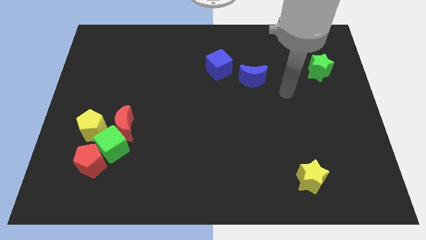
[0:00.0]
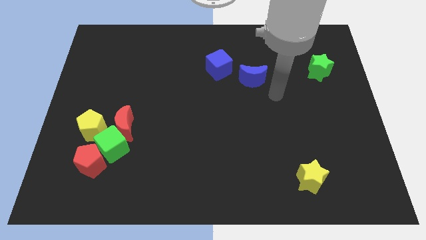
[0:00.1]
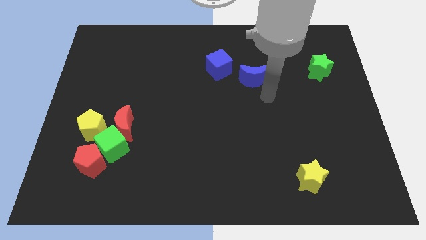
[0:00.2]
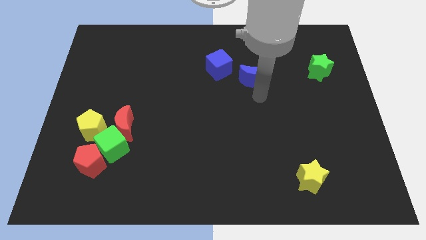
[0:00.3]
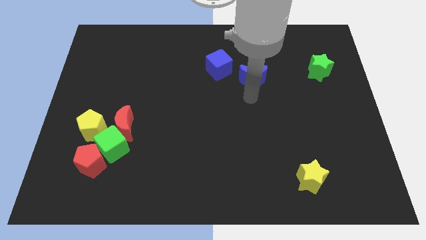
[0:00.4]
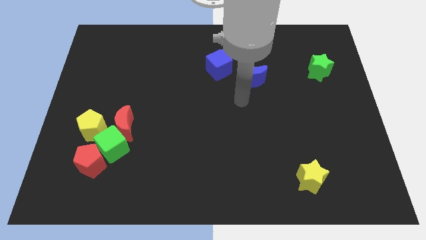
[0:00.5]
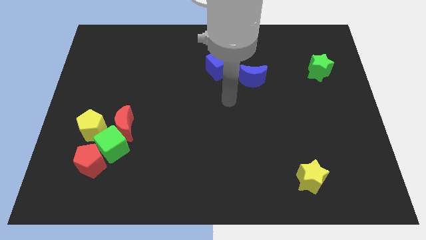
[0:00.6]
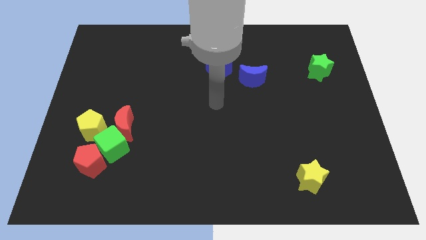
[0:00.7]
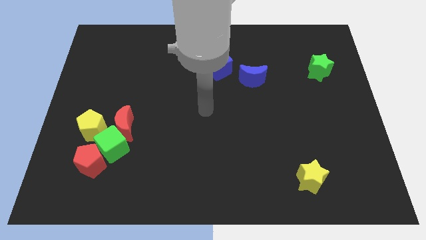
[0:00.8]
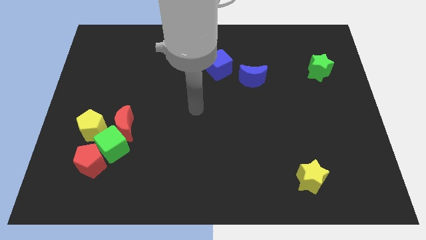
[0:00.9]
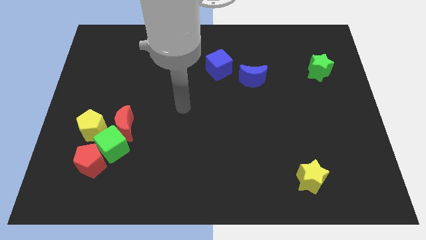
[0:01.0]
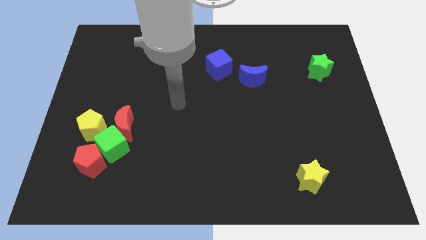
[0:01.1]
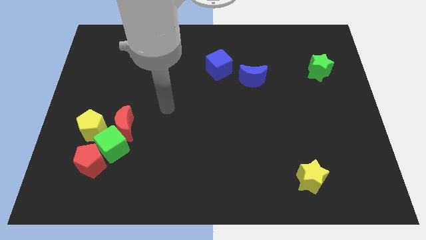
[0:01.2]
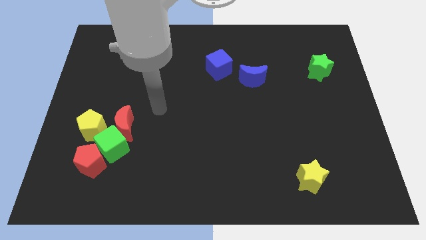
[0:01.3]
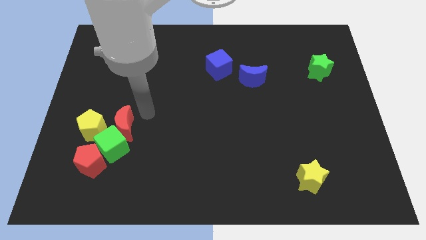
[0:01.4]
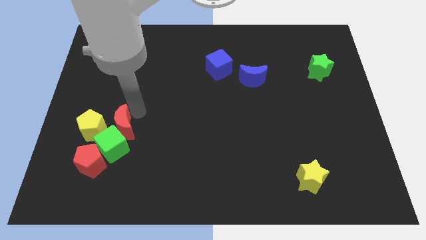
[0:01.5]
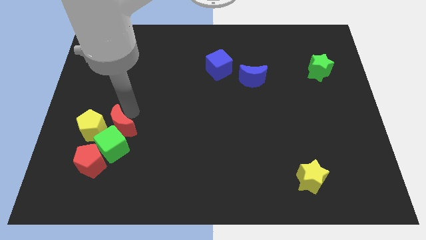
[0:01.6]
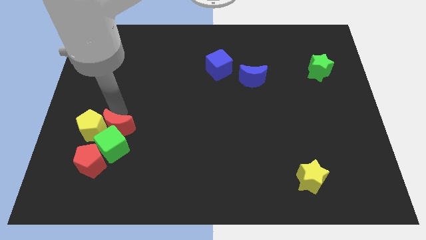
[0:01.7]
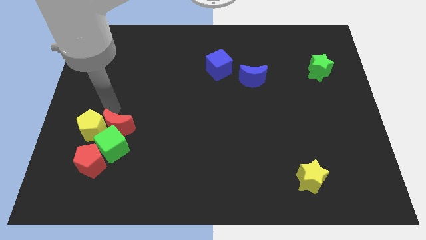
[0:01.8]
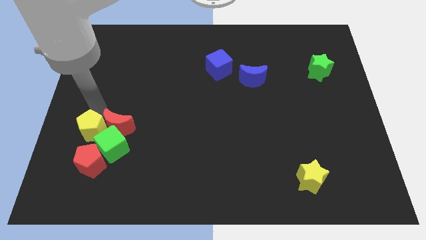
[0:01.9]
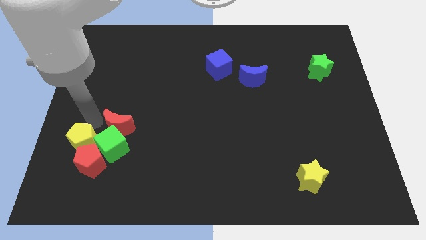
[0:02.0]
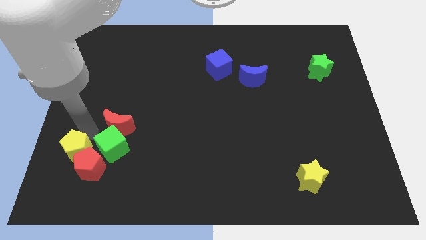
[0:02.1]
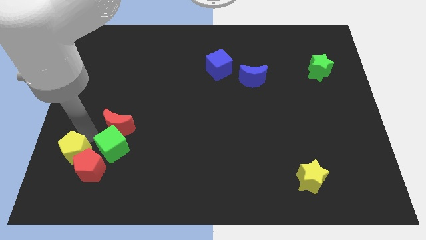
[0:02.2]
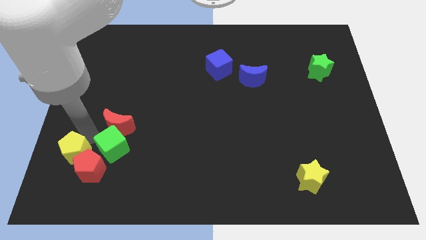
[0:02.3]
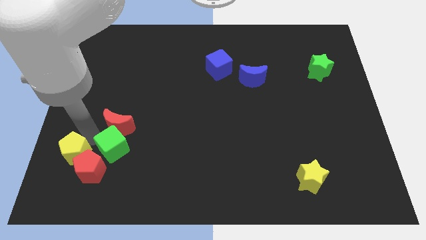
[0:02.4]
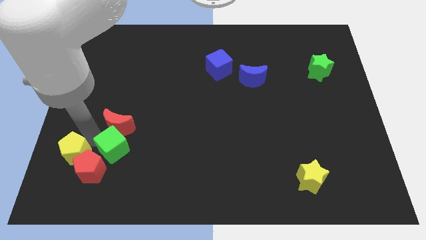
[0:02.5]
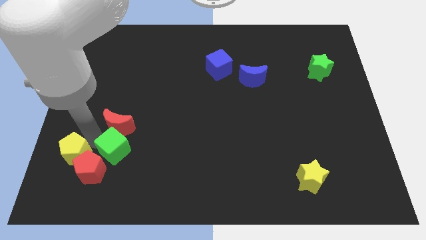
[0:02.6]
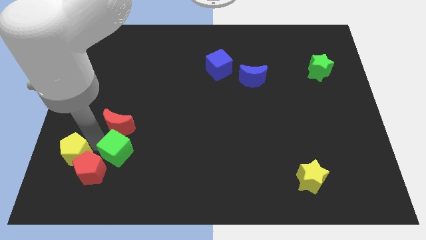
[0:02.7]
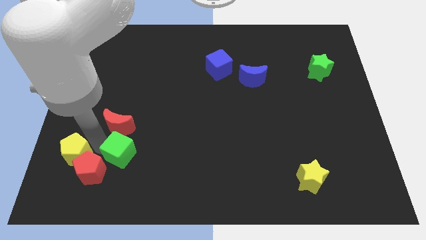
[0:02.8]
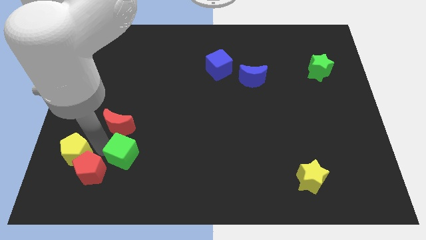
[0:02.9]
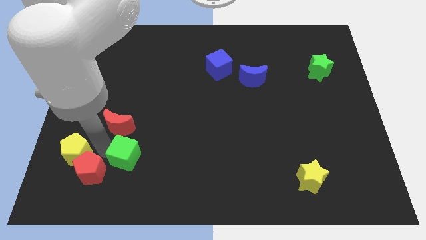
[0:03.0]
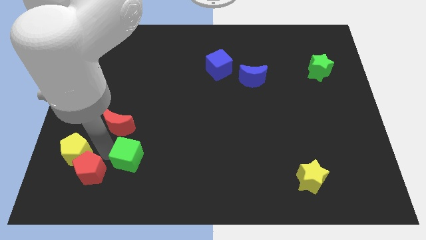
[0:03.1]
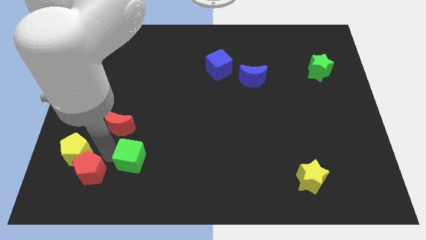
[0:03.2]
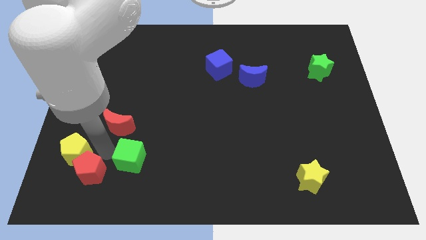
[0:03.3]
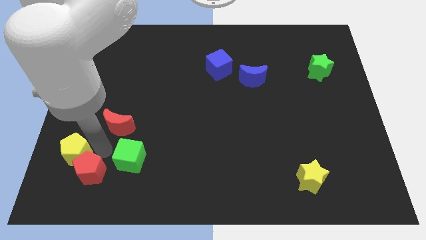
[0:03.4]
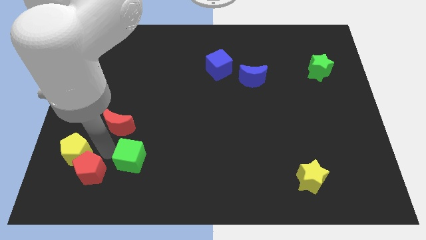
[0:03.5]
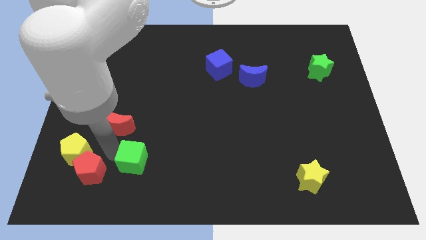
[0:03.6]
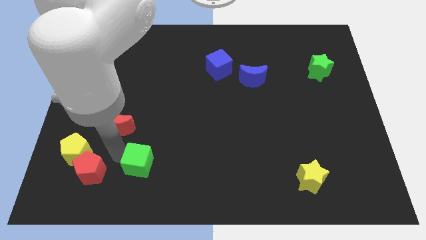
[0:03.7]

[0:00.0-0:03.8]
move the green cube away from the clump

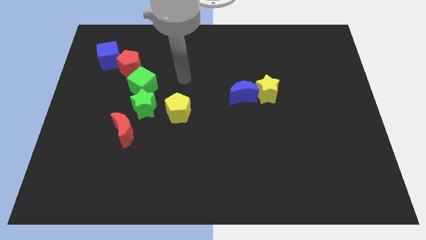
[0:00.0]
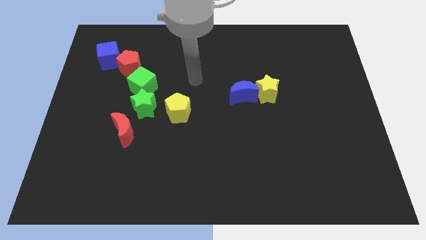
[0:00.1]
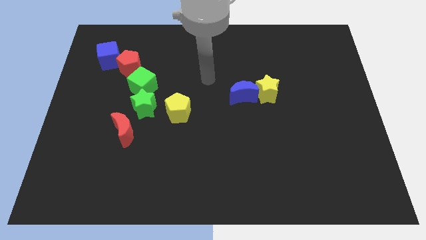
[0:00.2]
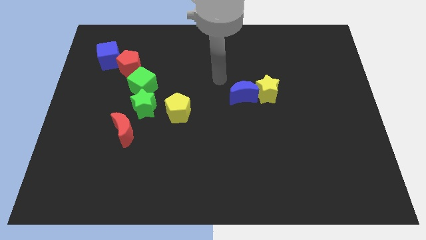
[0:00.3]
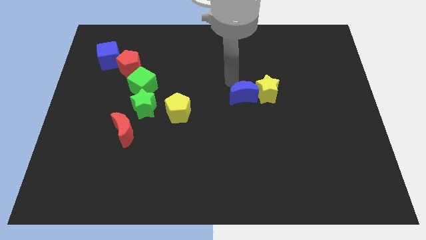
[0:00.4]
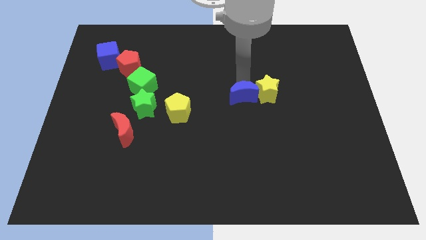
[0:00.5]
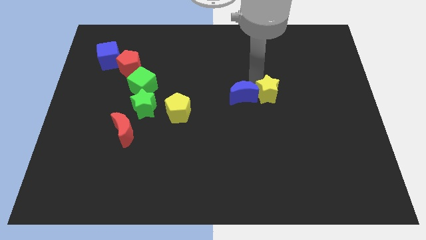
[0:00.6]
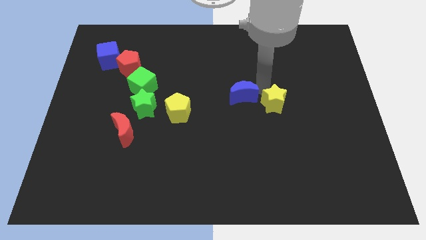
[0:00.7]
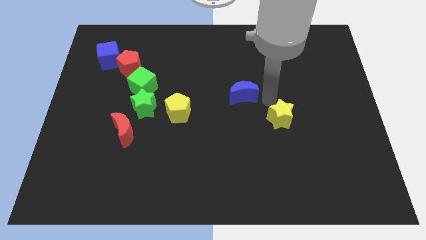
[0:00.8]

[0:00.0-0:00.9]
pull the blue moon apart from the yellow star

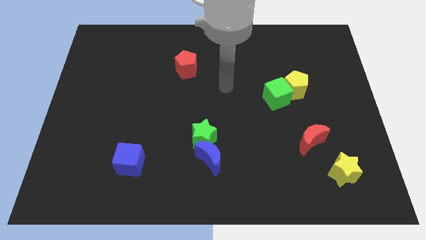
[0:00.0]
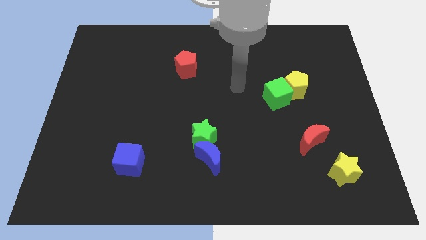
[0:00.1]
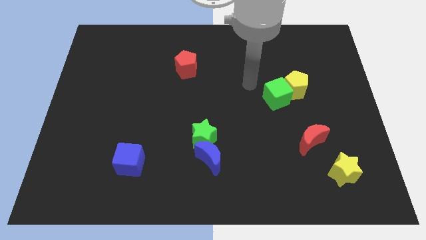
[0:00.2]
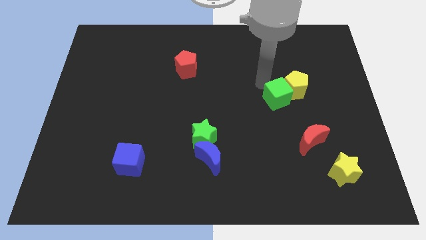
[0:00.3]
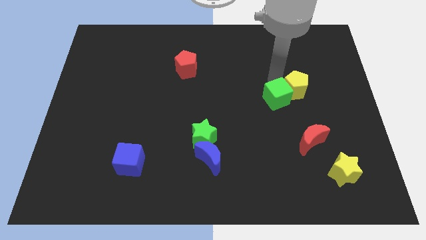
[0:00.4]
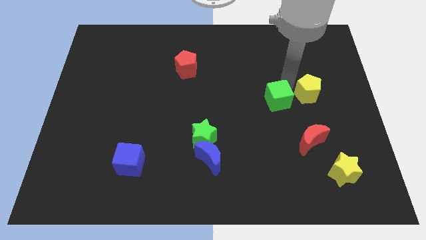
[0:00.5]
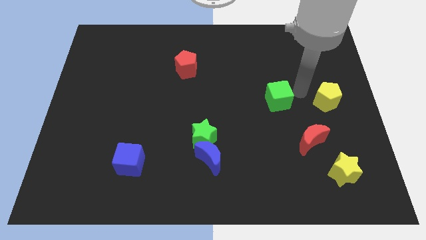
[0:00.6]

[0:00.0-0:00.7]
separate the green cube from the yellow pentagon

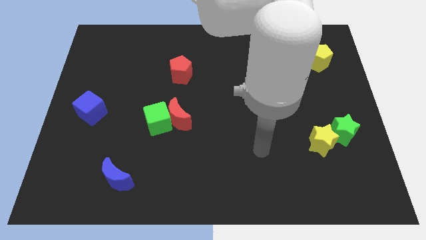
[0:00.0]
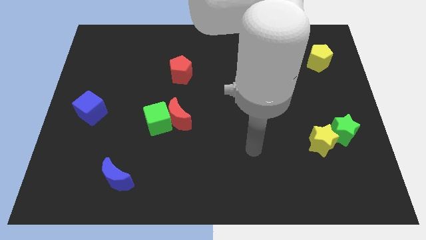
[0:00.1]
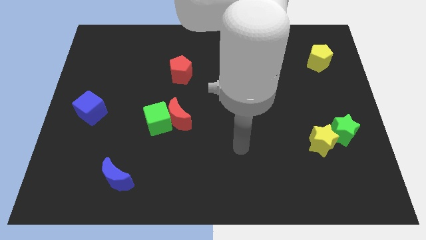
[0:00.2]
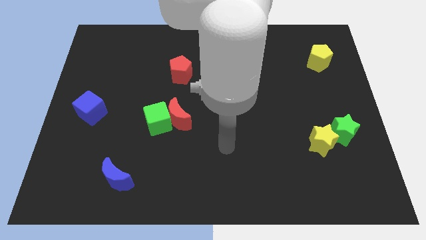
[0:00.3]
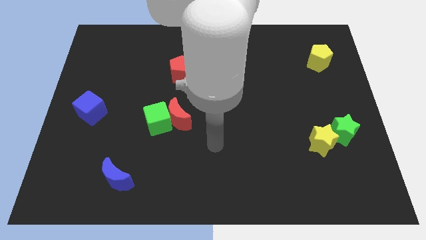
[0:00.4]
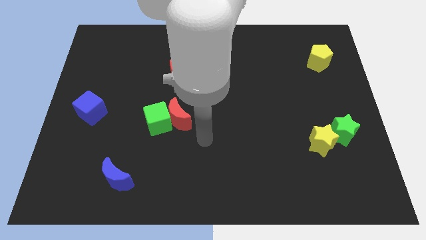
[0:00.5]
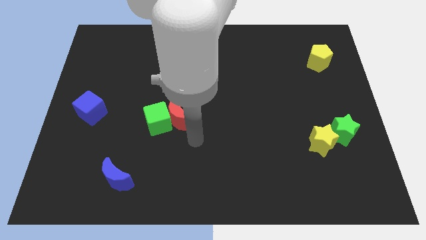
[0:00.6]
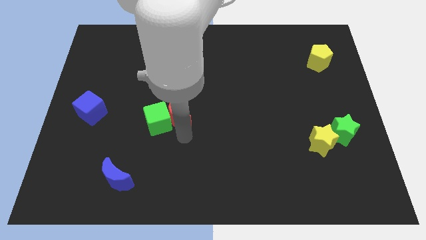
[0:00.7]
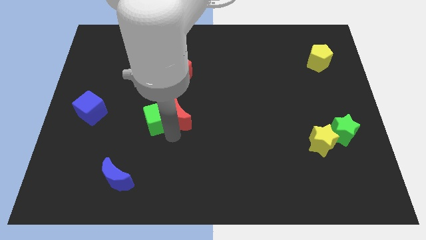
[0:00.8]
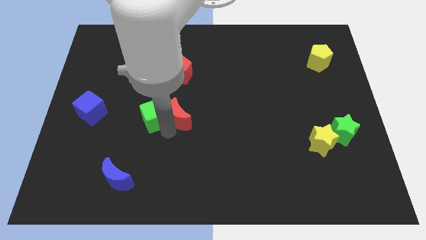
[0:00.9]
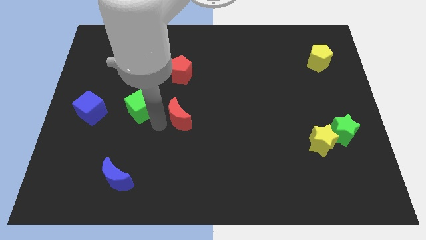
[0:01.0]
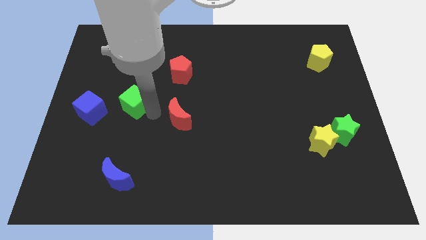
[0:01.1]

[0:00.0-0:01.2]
pull the red moon apart from the green cube

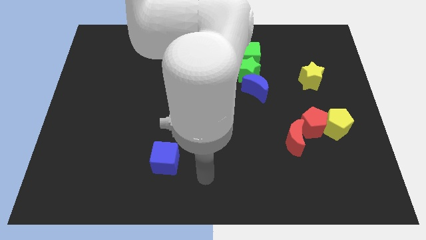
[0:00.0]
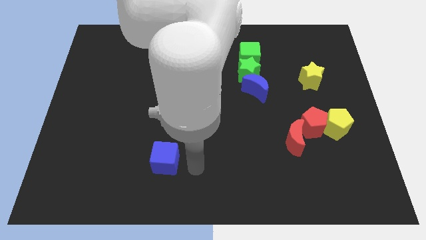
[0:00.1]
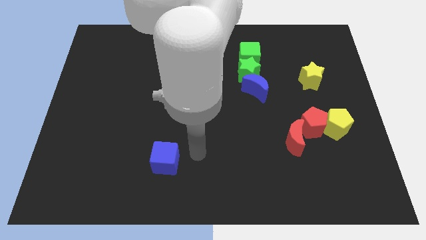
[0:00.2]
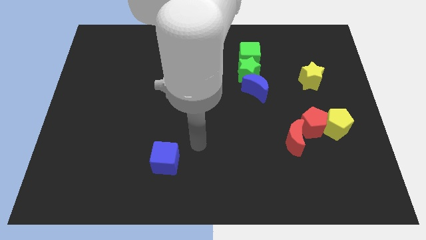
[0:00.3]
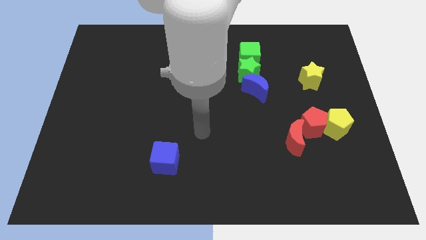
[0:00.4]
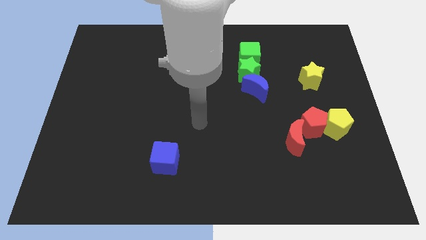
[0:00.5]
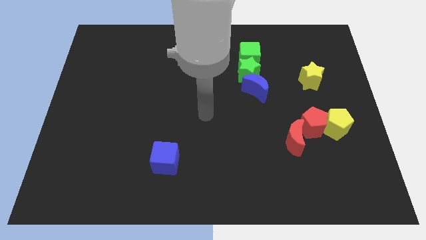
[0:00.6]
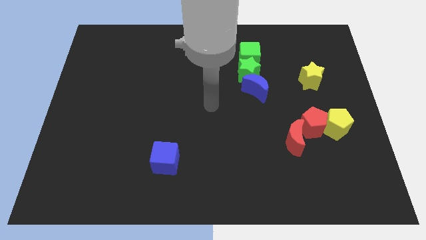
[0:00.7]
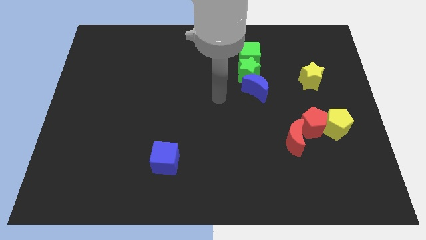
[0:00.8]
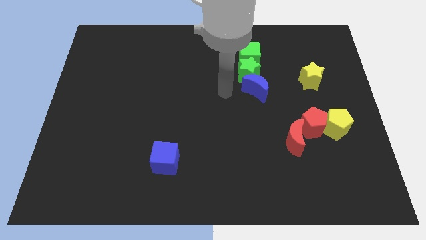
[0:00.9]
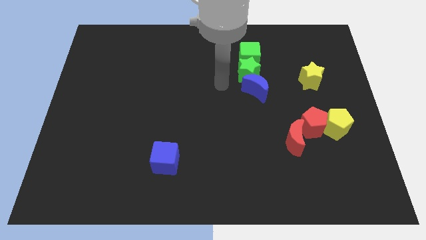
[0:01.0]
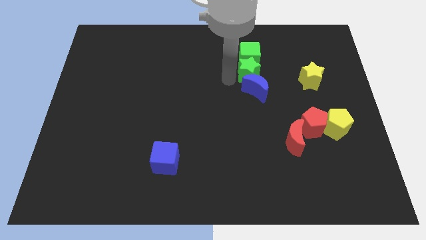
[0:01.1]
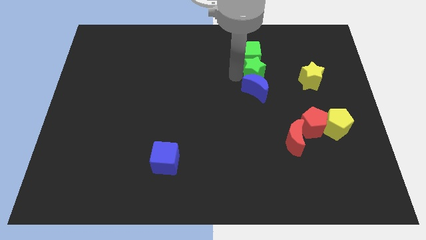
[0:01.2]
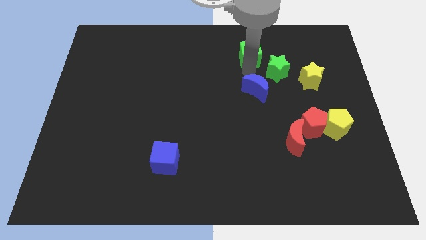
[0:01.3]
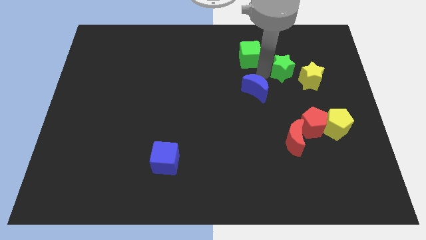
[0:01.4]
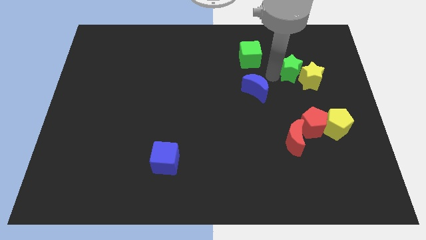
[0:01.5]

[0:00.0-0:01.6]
separate the blue moon from the green star

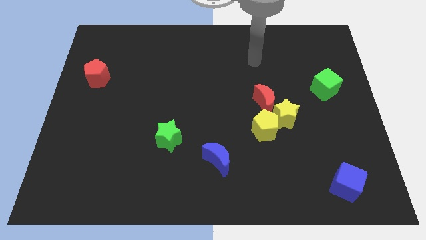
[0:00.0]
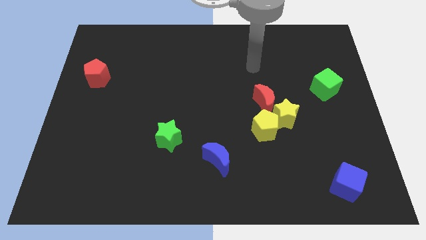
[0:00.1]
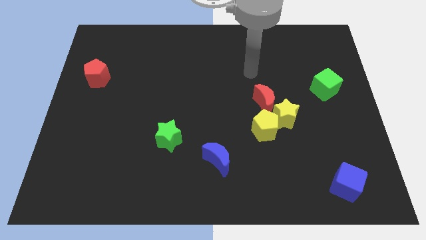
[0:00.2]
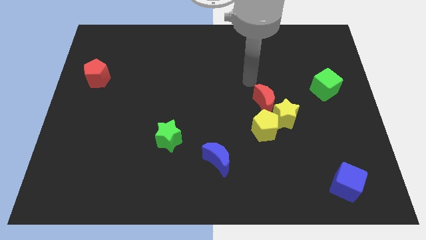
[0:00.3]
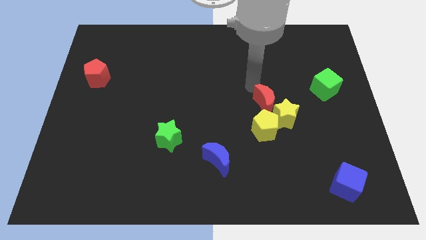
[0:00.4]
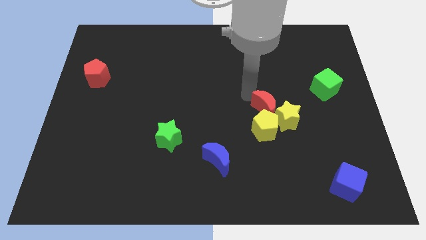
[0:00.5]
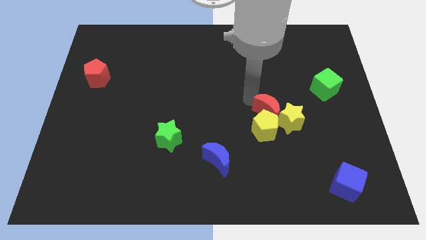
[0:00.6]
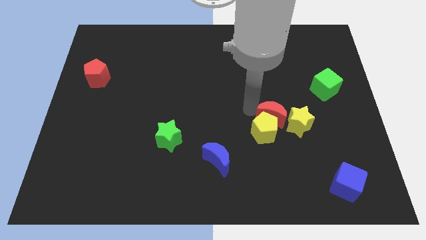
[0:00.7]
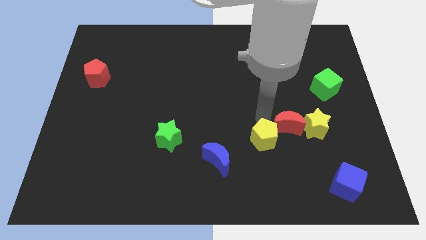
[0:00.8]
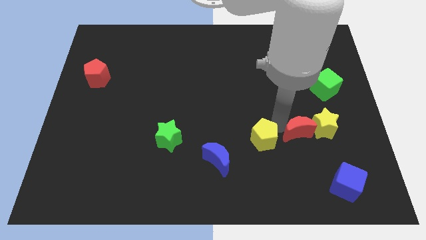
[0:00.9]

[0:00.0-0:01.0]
separate the yellow star from the yellow pentagon and red moon

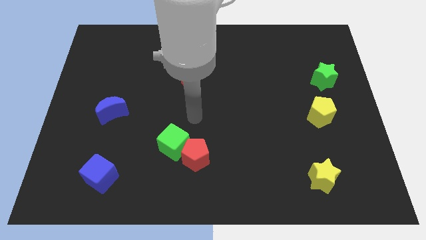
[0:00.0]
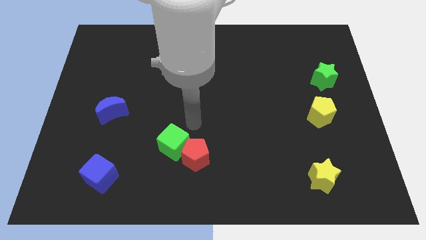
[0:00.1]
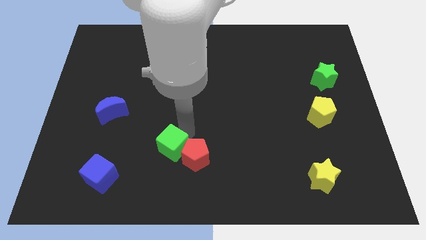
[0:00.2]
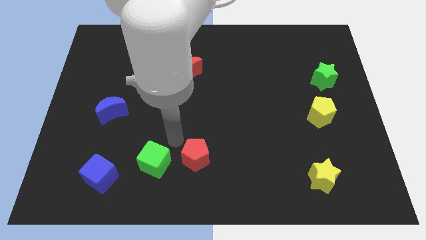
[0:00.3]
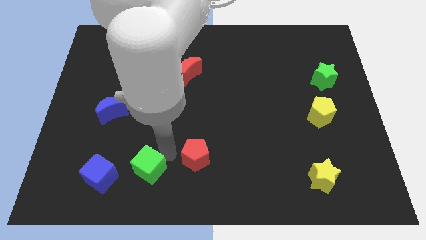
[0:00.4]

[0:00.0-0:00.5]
pull the red pentagon apart from the green cube
